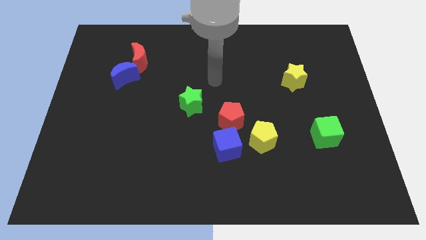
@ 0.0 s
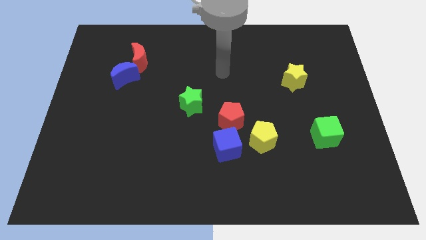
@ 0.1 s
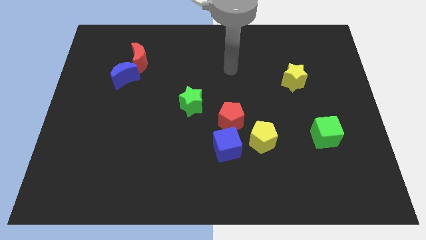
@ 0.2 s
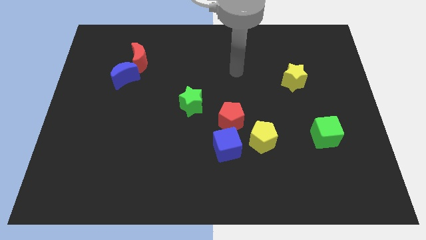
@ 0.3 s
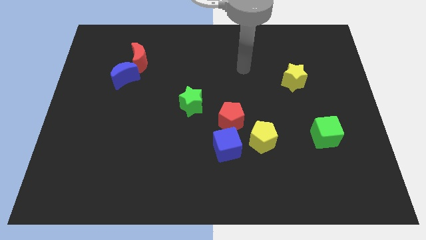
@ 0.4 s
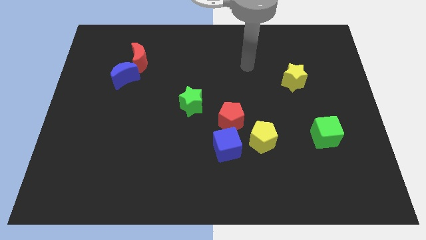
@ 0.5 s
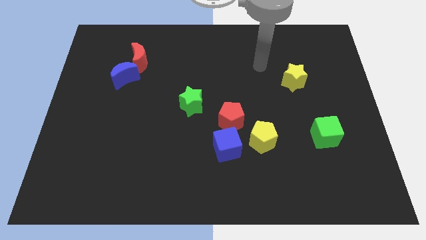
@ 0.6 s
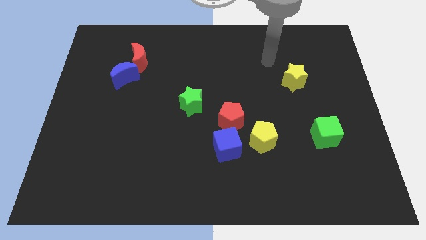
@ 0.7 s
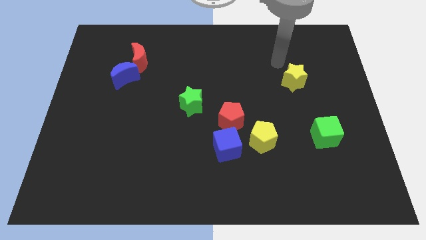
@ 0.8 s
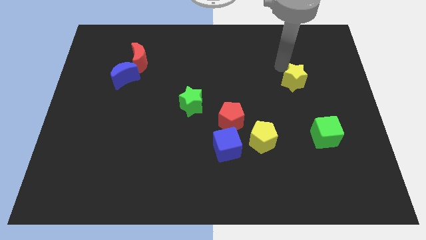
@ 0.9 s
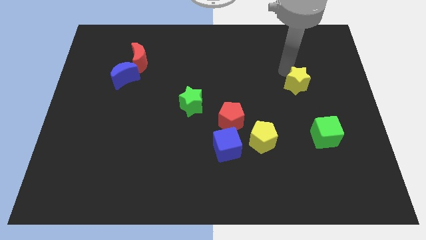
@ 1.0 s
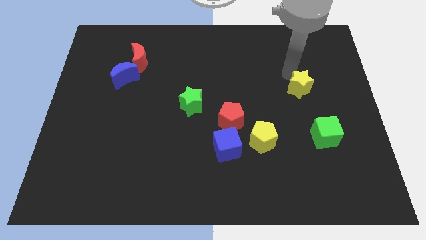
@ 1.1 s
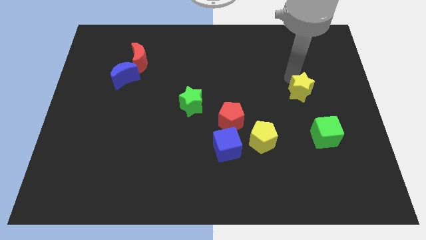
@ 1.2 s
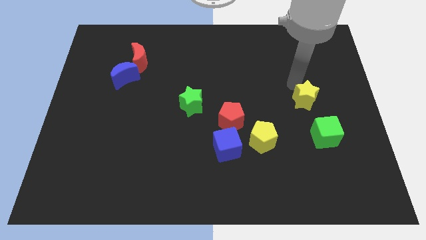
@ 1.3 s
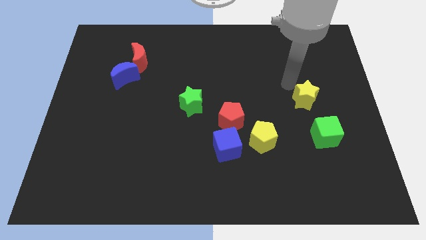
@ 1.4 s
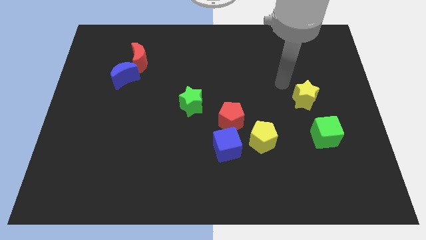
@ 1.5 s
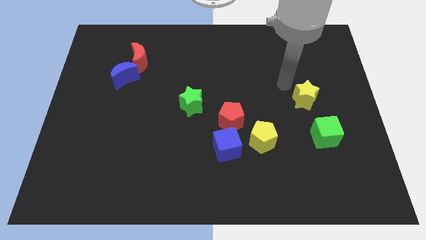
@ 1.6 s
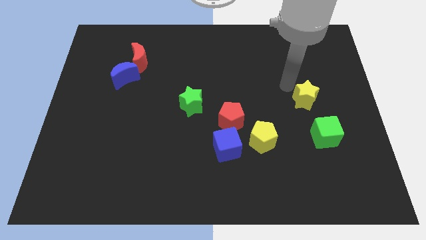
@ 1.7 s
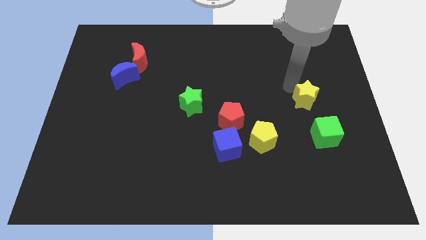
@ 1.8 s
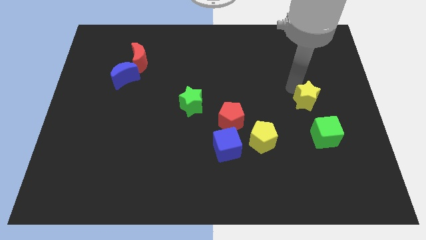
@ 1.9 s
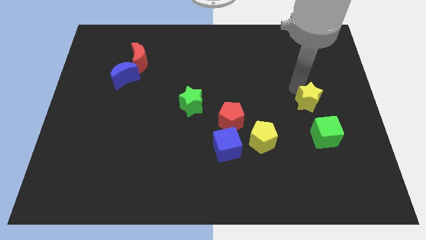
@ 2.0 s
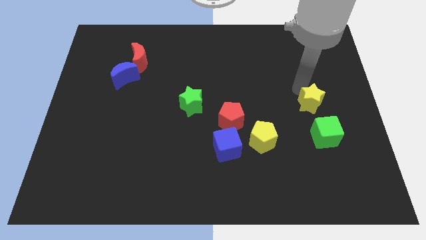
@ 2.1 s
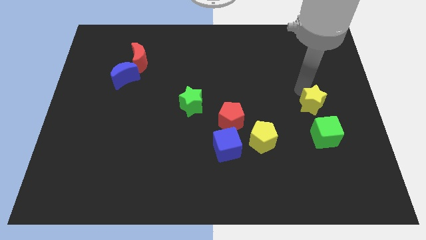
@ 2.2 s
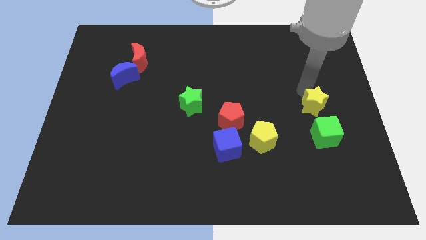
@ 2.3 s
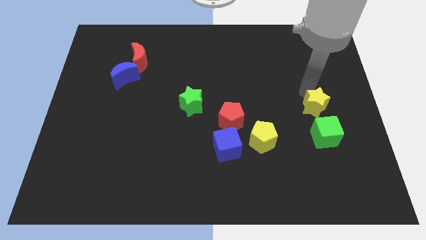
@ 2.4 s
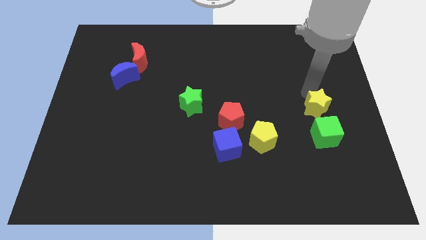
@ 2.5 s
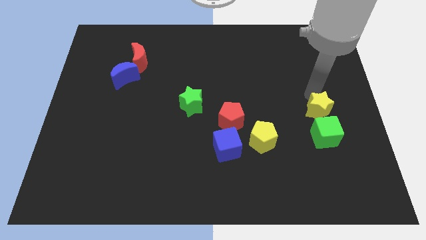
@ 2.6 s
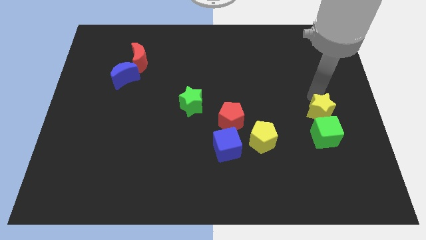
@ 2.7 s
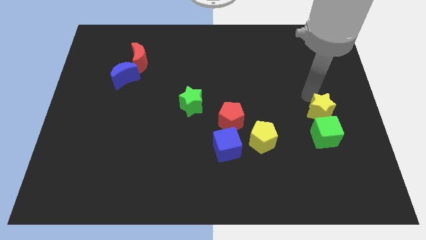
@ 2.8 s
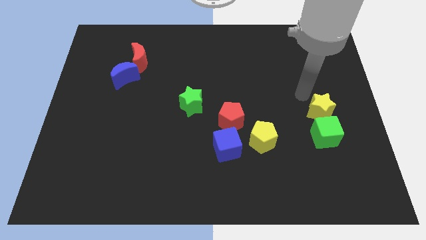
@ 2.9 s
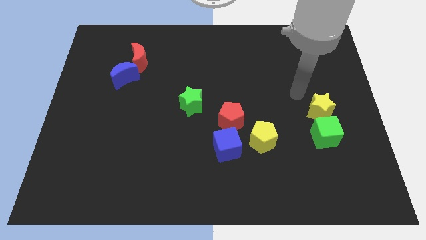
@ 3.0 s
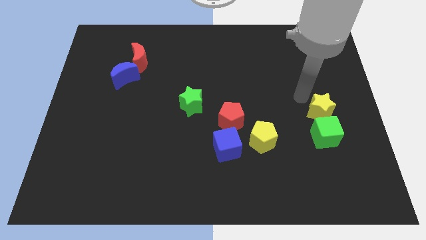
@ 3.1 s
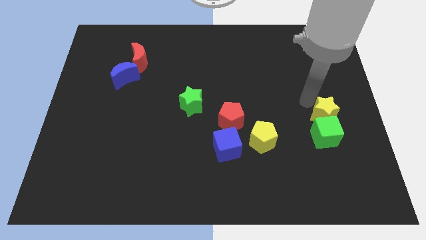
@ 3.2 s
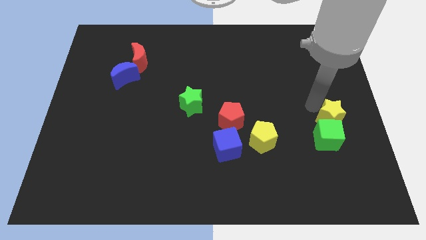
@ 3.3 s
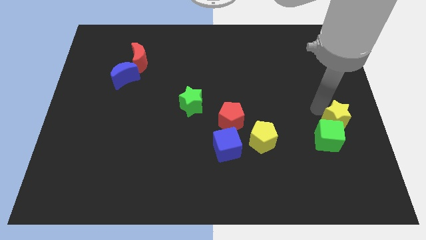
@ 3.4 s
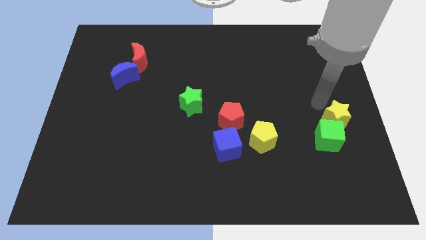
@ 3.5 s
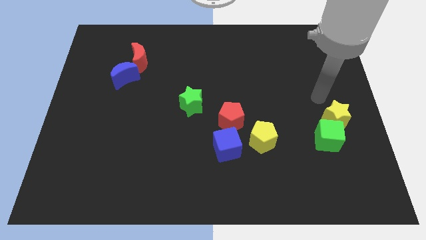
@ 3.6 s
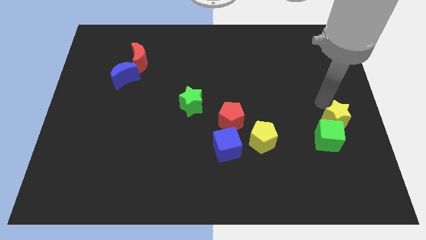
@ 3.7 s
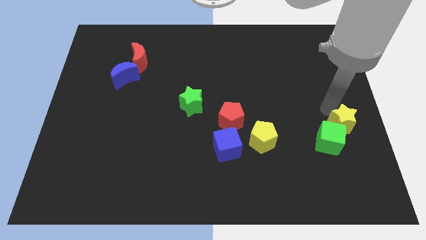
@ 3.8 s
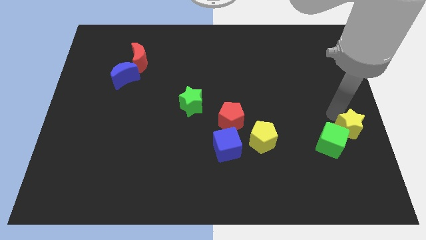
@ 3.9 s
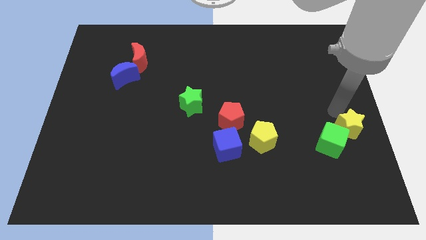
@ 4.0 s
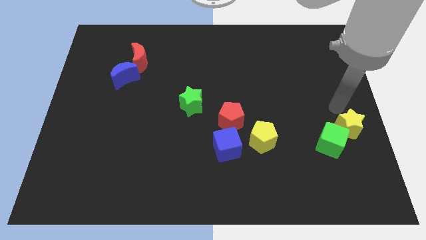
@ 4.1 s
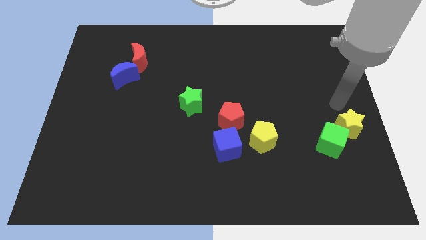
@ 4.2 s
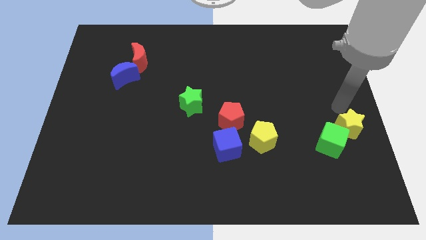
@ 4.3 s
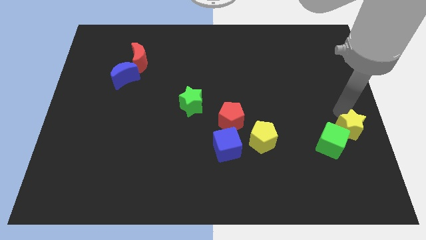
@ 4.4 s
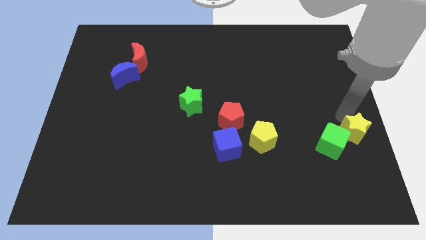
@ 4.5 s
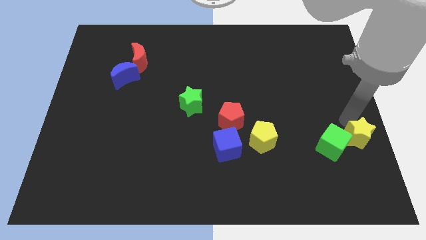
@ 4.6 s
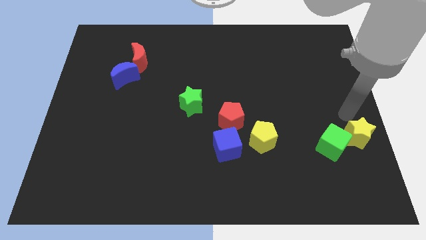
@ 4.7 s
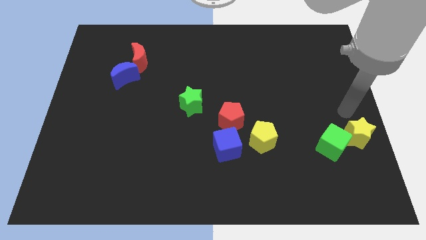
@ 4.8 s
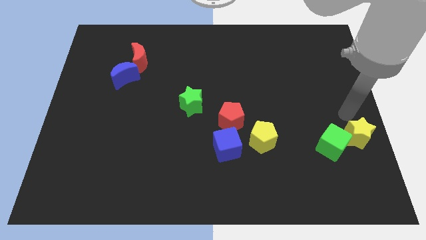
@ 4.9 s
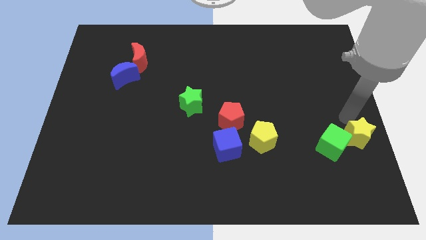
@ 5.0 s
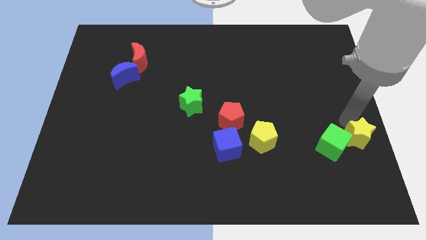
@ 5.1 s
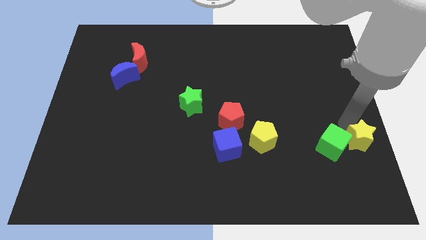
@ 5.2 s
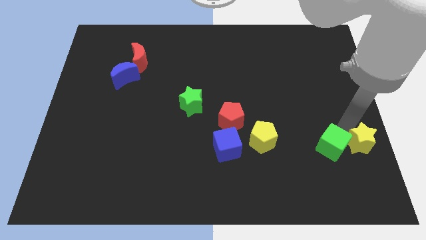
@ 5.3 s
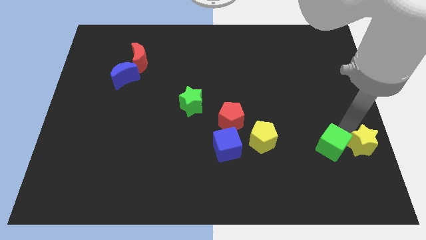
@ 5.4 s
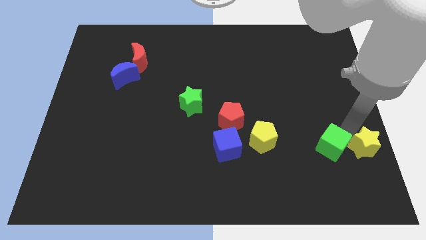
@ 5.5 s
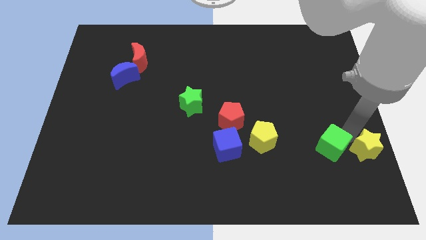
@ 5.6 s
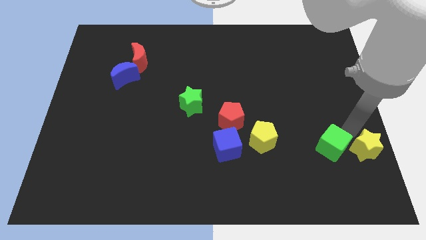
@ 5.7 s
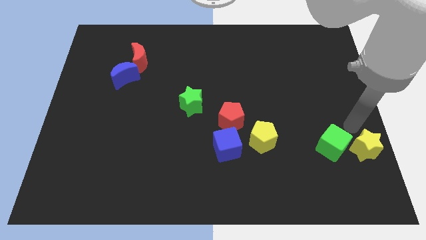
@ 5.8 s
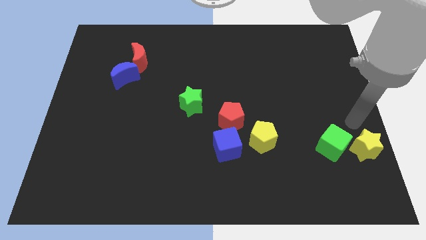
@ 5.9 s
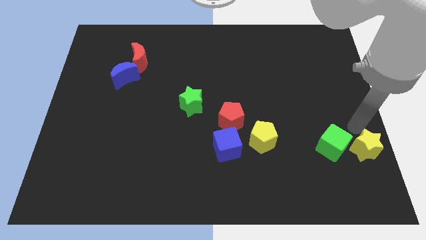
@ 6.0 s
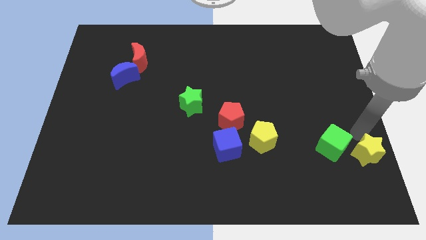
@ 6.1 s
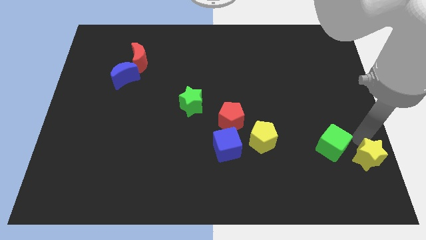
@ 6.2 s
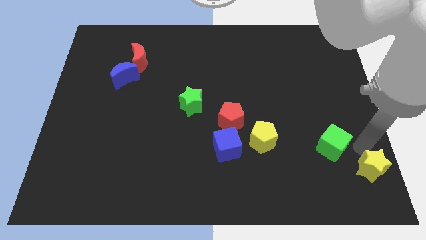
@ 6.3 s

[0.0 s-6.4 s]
put the yellow star to the lower right corner
